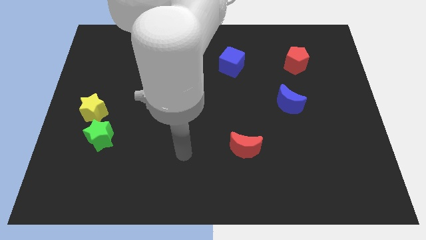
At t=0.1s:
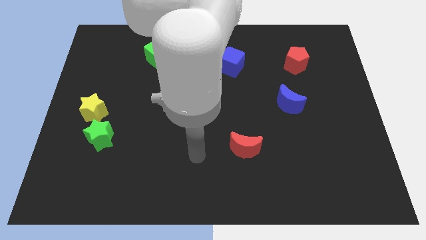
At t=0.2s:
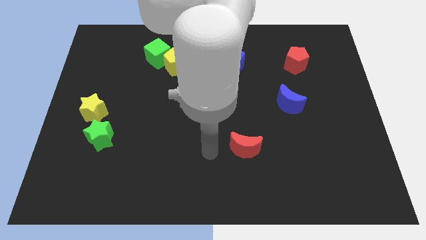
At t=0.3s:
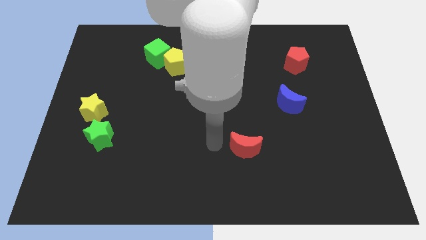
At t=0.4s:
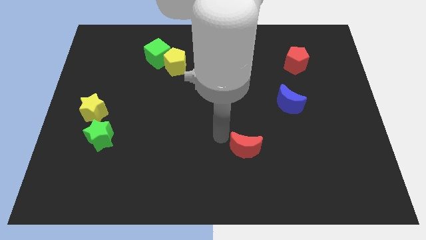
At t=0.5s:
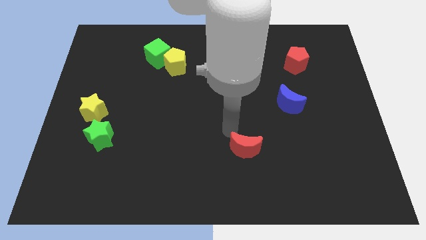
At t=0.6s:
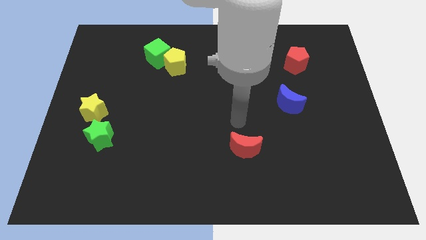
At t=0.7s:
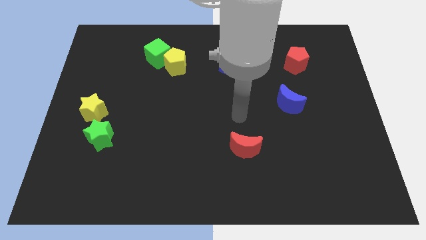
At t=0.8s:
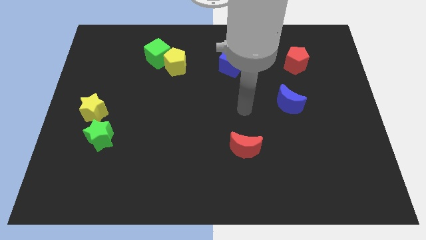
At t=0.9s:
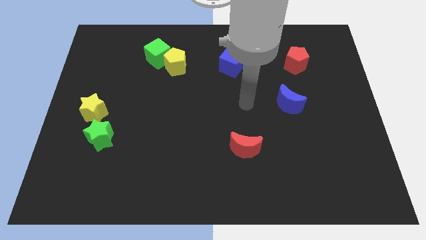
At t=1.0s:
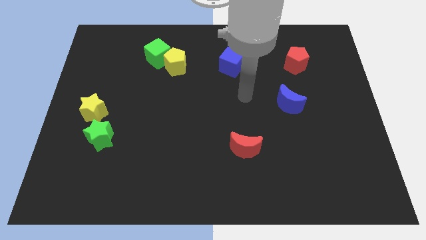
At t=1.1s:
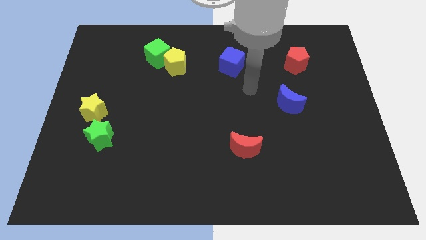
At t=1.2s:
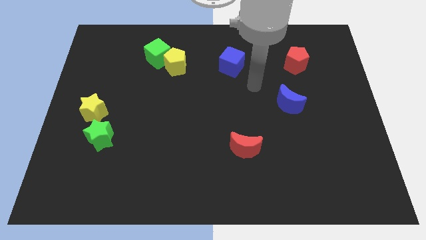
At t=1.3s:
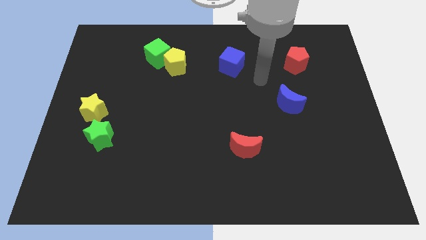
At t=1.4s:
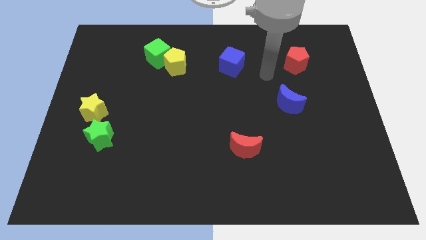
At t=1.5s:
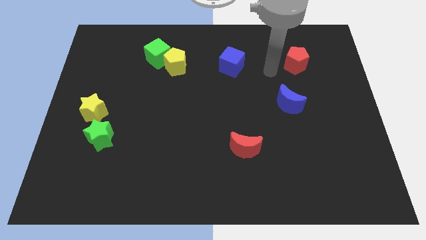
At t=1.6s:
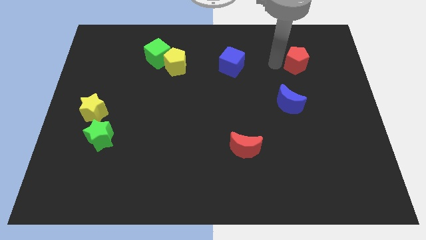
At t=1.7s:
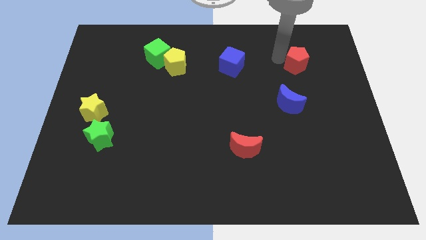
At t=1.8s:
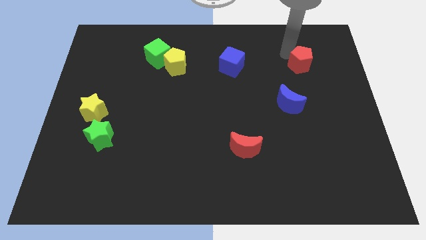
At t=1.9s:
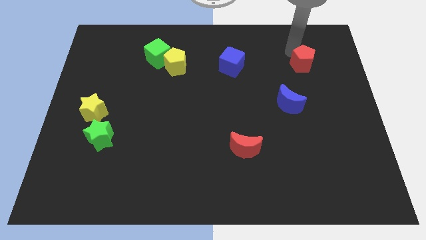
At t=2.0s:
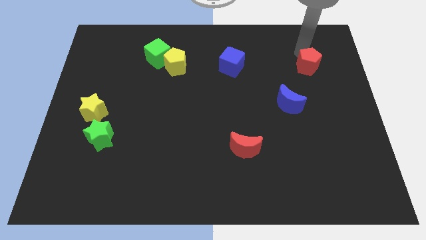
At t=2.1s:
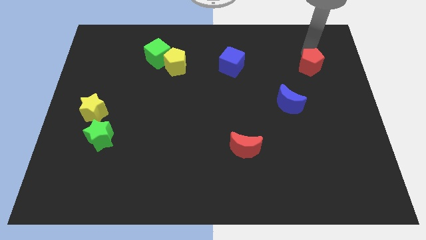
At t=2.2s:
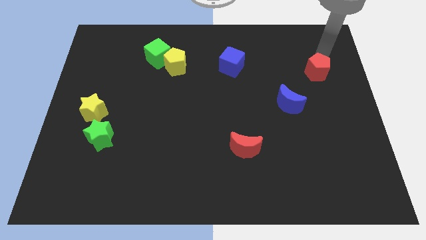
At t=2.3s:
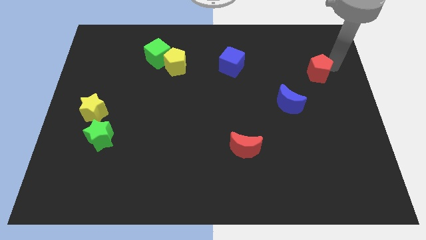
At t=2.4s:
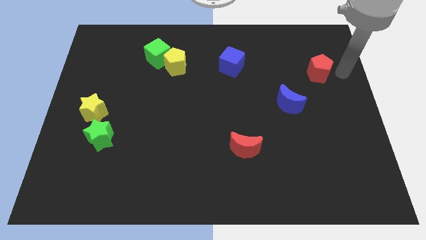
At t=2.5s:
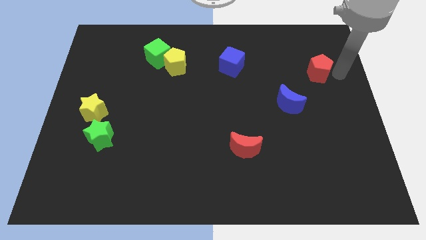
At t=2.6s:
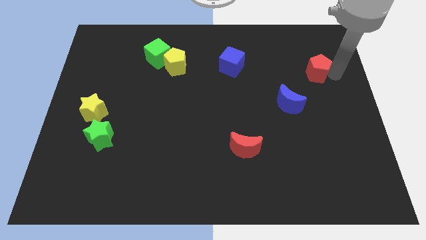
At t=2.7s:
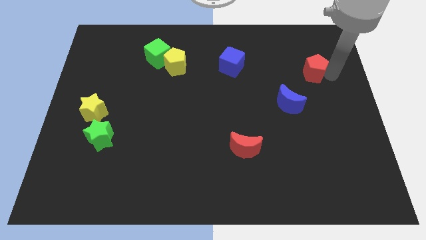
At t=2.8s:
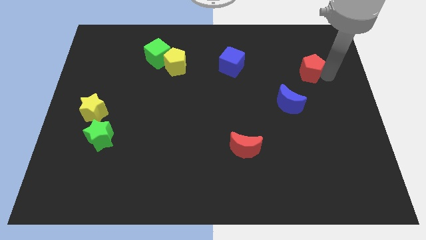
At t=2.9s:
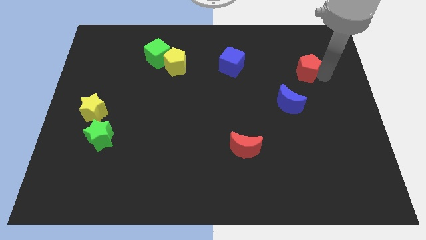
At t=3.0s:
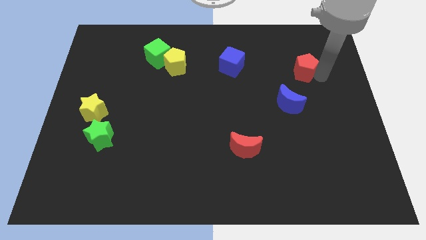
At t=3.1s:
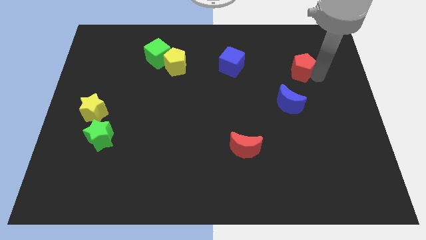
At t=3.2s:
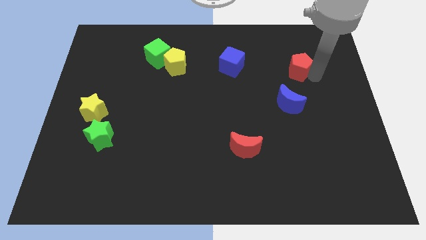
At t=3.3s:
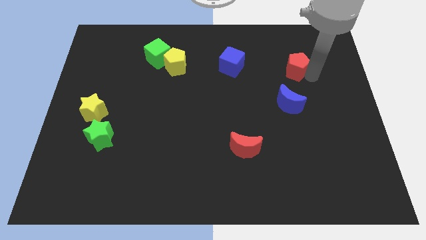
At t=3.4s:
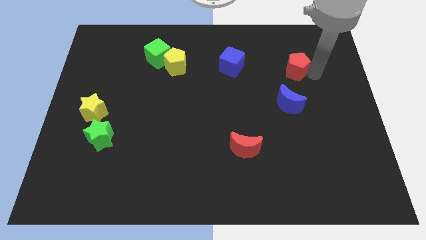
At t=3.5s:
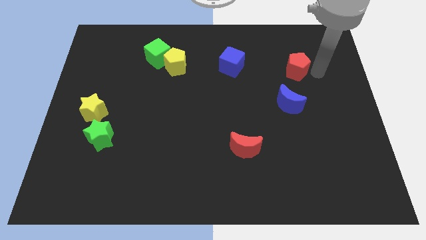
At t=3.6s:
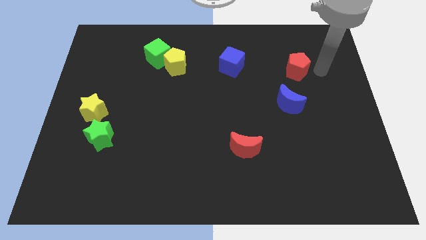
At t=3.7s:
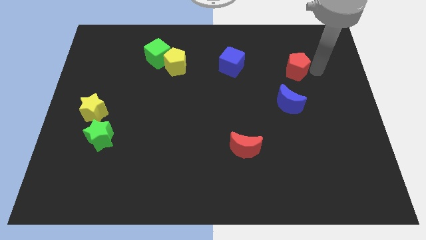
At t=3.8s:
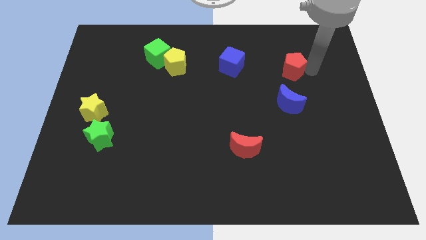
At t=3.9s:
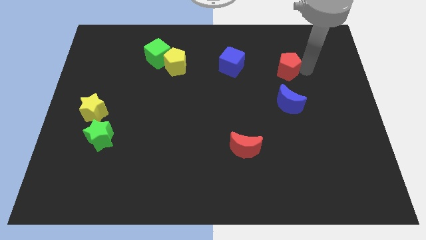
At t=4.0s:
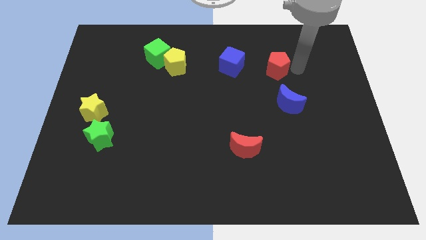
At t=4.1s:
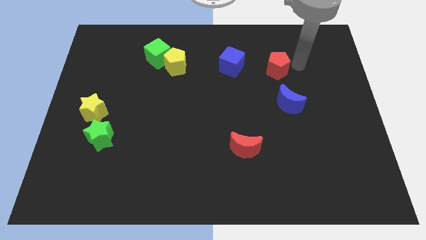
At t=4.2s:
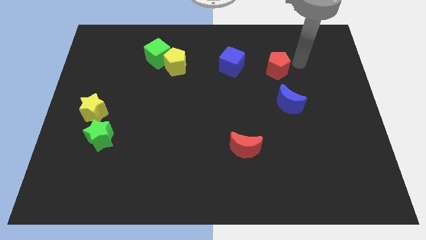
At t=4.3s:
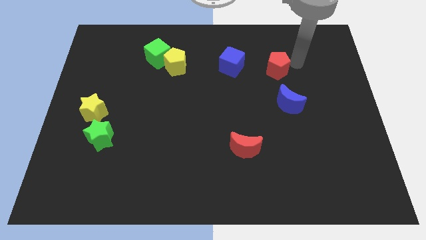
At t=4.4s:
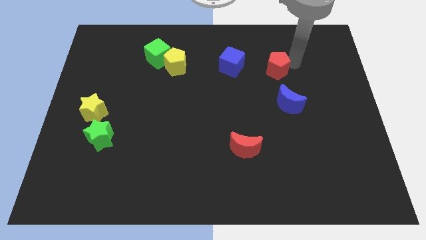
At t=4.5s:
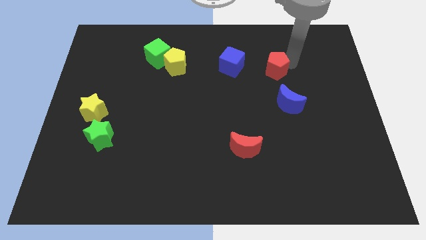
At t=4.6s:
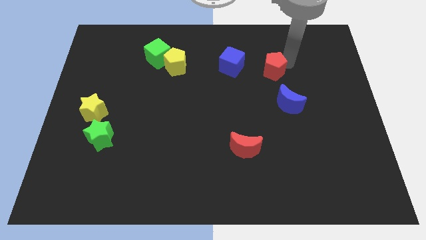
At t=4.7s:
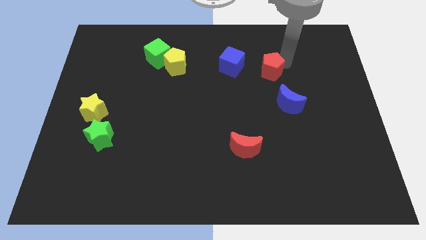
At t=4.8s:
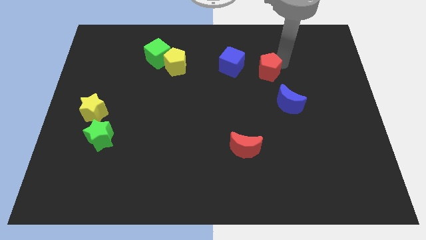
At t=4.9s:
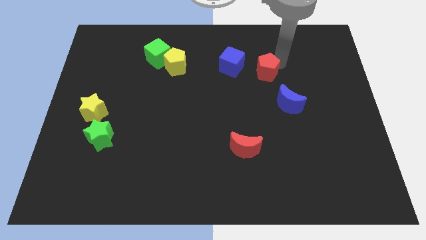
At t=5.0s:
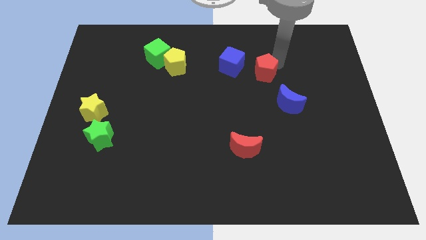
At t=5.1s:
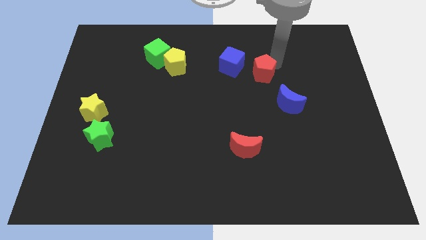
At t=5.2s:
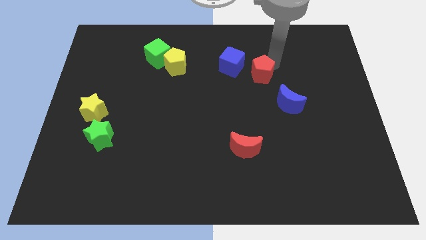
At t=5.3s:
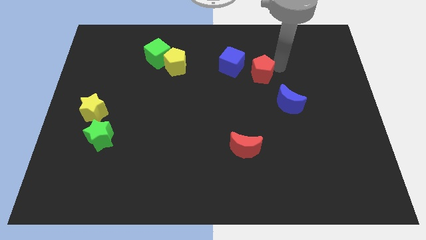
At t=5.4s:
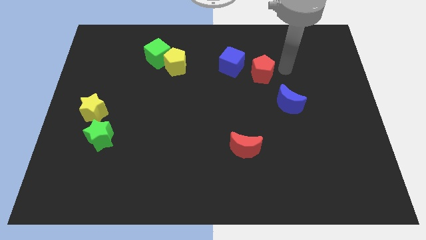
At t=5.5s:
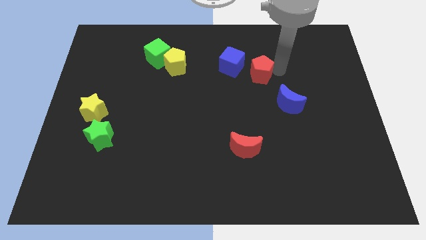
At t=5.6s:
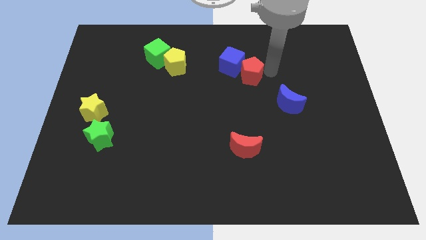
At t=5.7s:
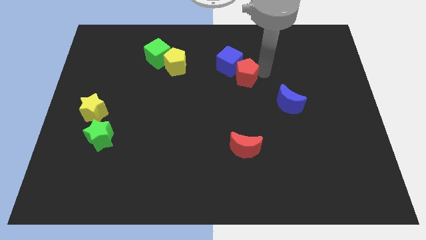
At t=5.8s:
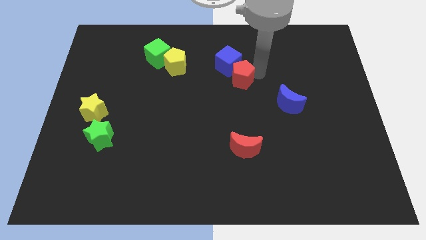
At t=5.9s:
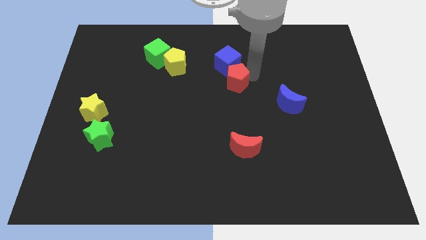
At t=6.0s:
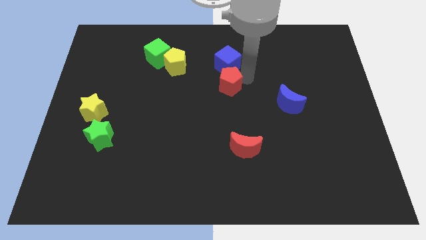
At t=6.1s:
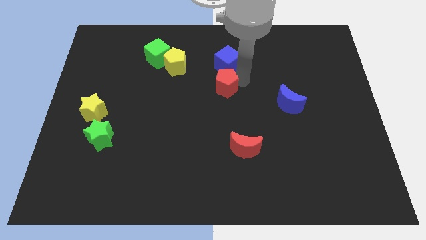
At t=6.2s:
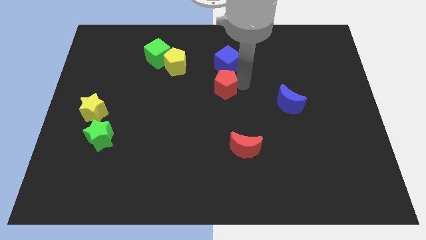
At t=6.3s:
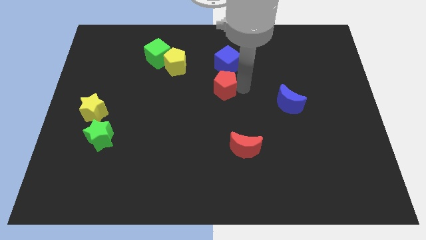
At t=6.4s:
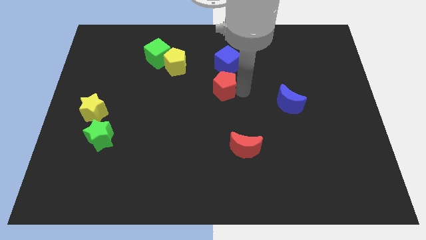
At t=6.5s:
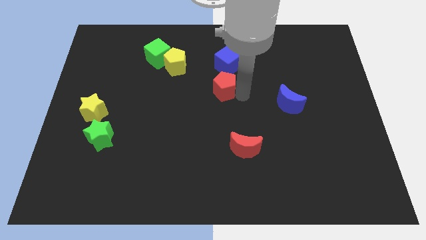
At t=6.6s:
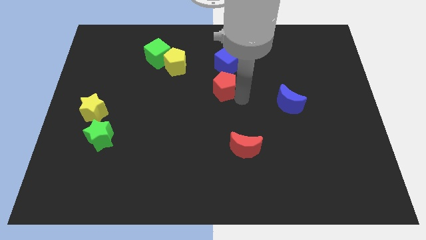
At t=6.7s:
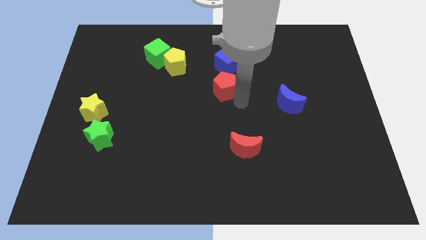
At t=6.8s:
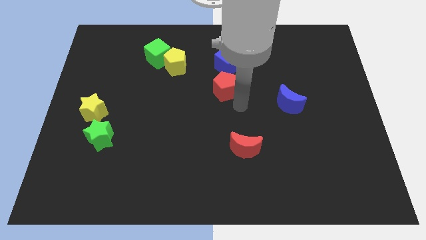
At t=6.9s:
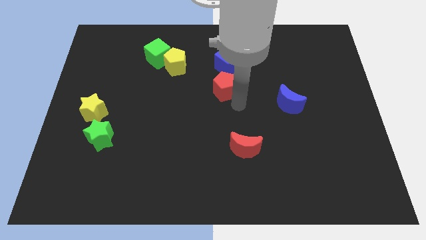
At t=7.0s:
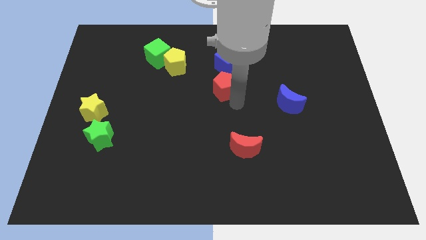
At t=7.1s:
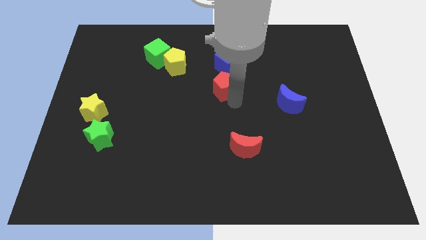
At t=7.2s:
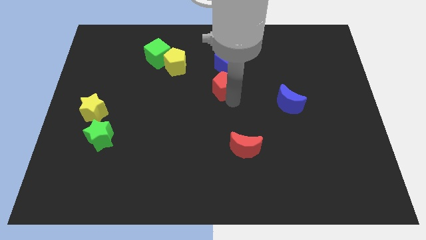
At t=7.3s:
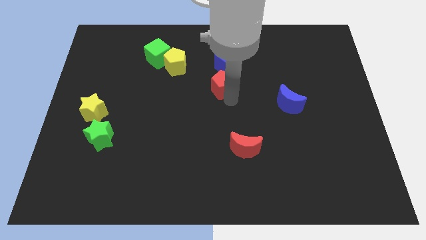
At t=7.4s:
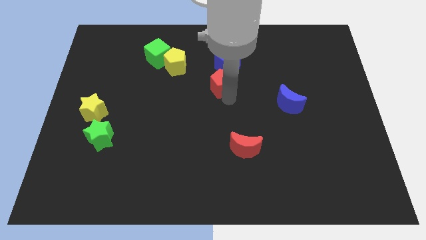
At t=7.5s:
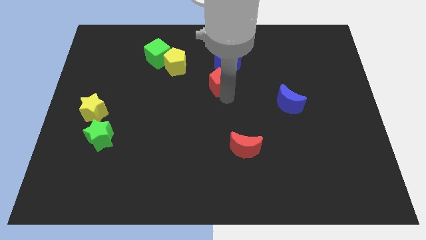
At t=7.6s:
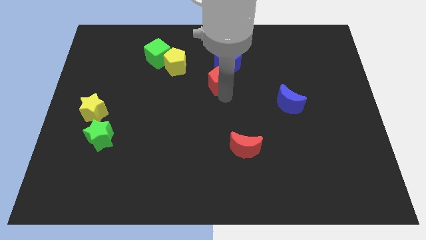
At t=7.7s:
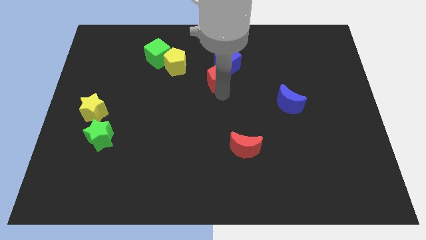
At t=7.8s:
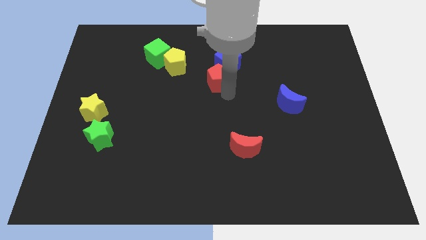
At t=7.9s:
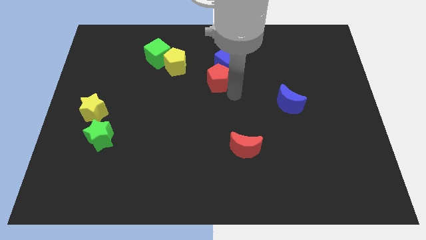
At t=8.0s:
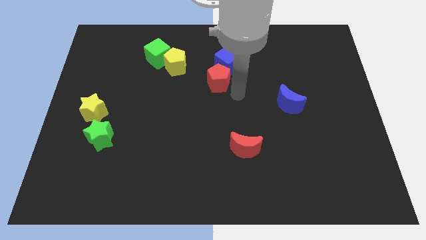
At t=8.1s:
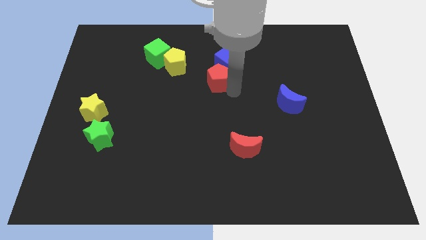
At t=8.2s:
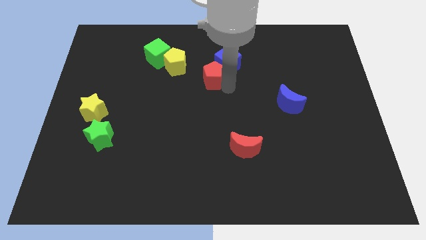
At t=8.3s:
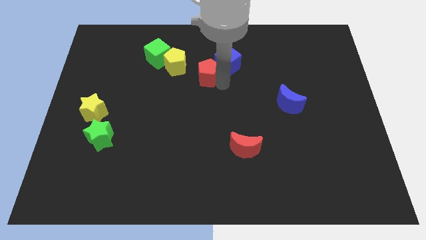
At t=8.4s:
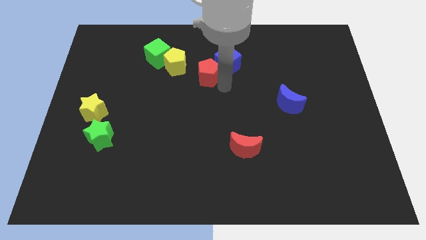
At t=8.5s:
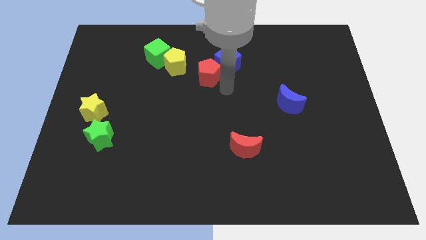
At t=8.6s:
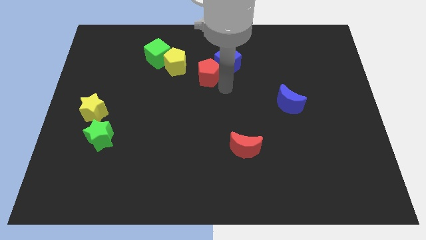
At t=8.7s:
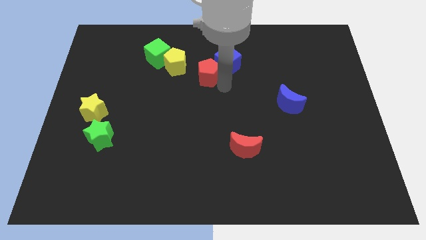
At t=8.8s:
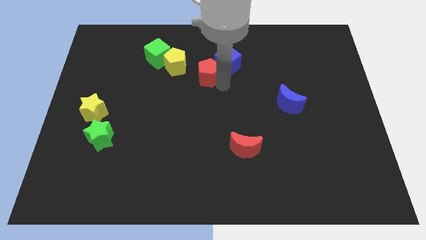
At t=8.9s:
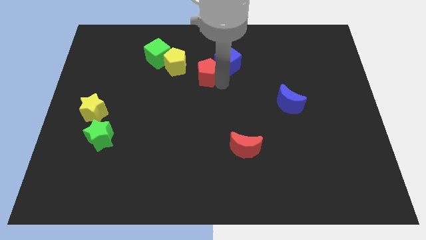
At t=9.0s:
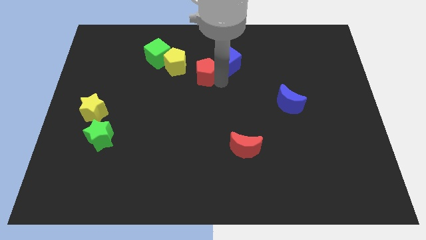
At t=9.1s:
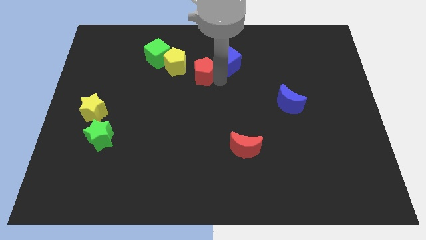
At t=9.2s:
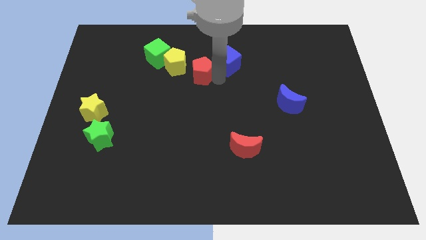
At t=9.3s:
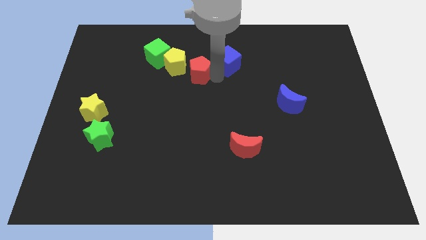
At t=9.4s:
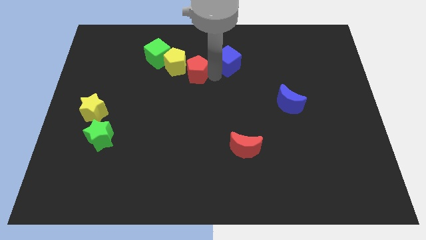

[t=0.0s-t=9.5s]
slide the red pentagon to the yellow pentagon
